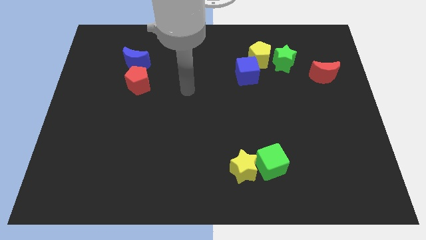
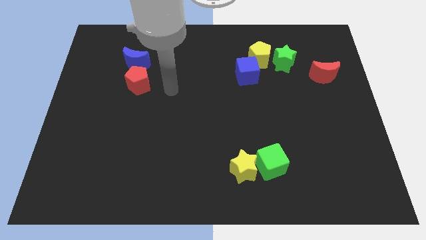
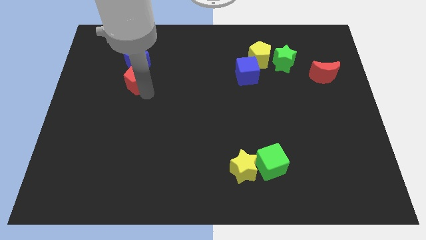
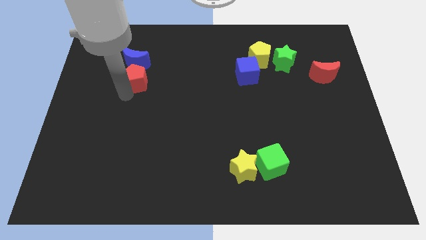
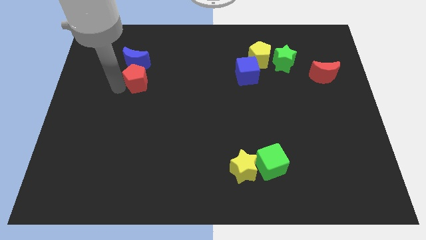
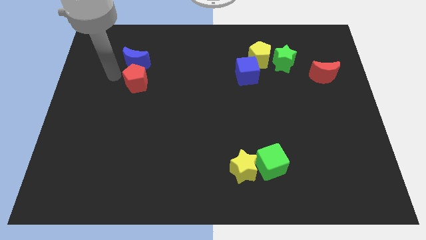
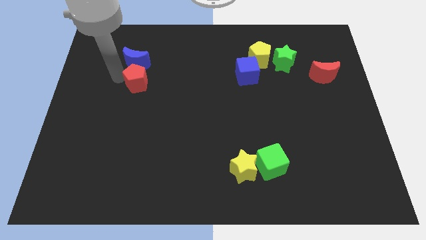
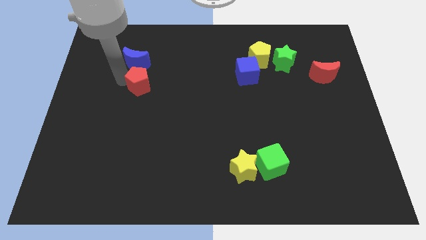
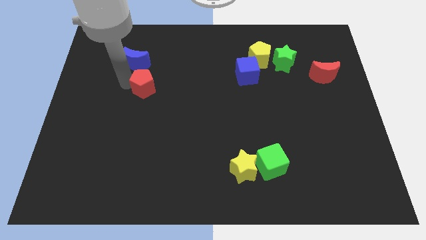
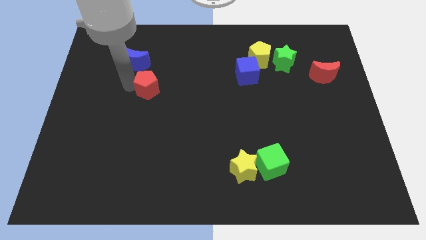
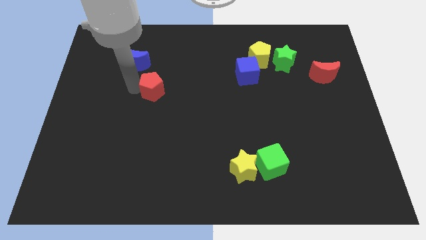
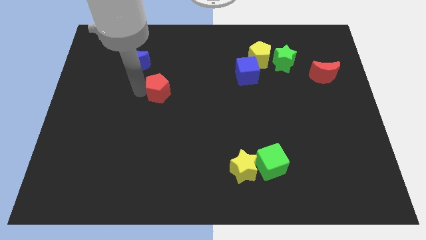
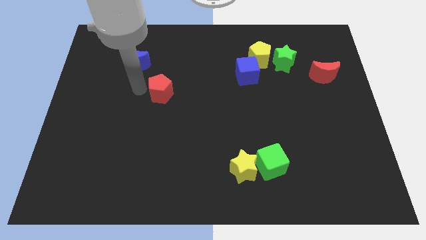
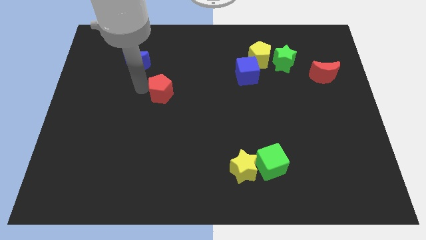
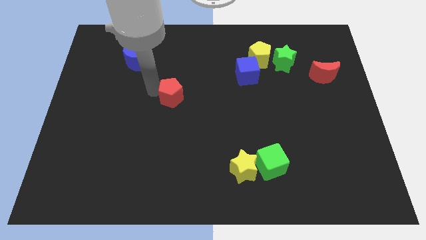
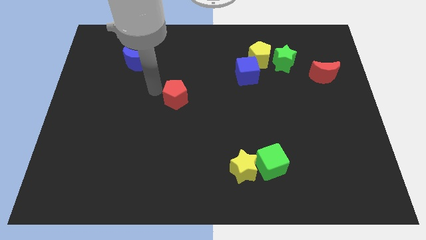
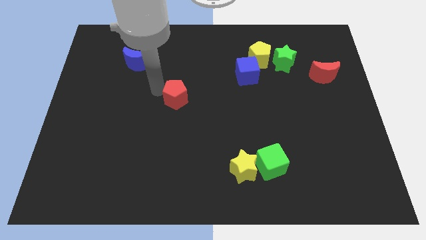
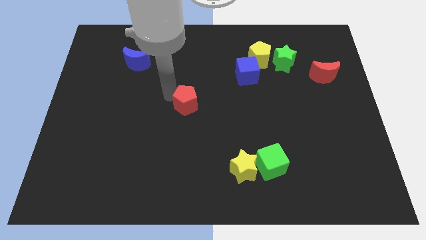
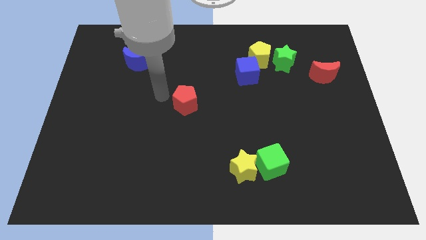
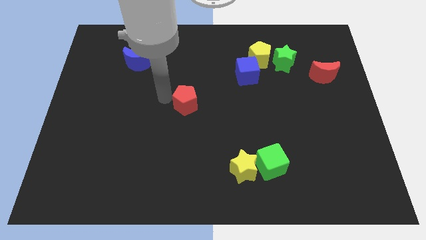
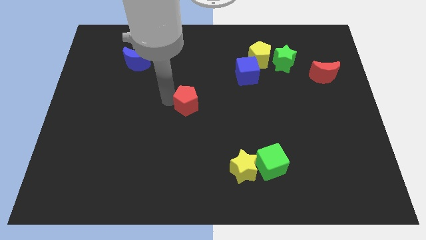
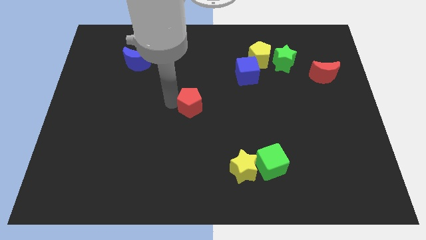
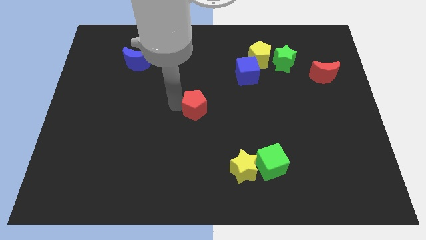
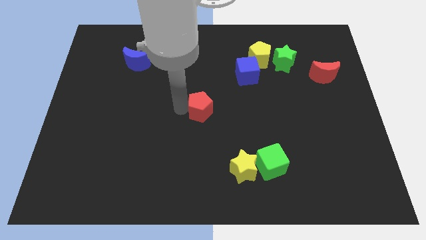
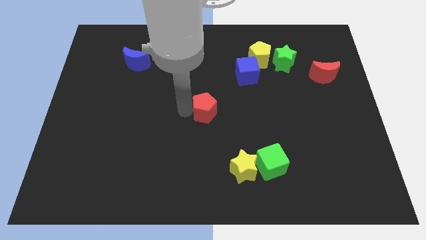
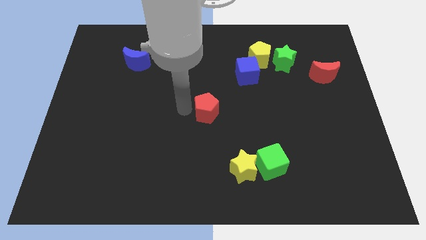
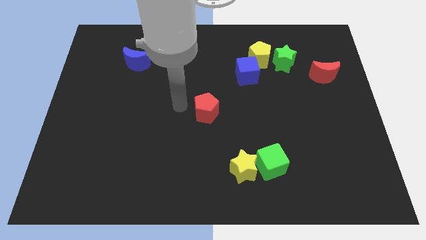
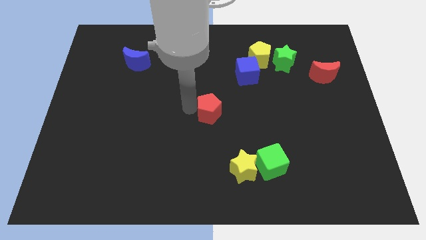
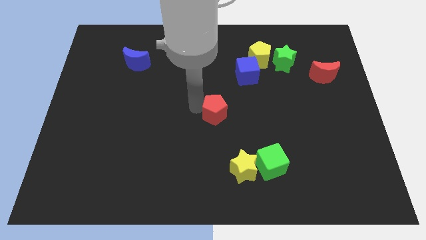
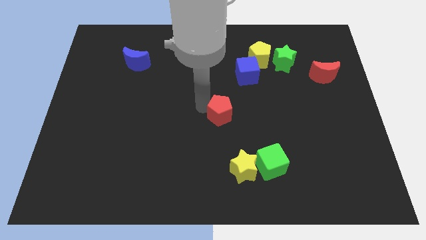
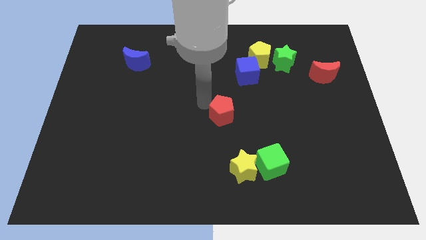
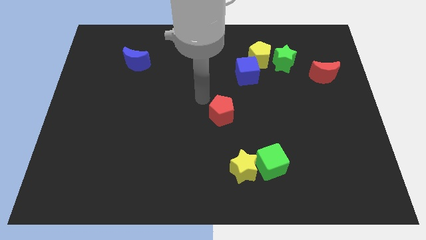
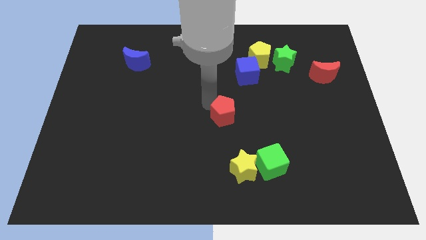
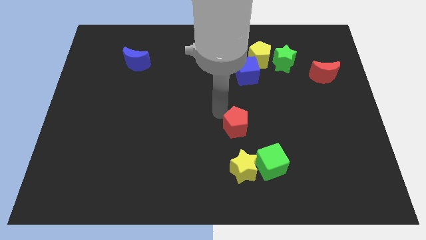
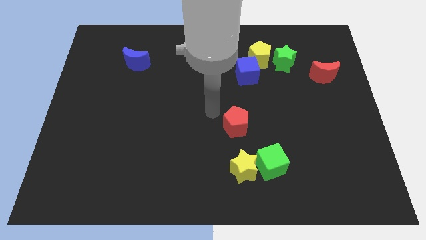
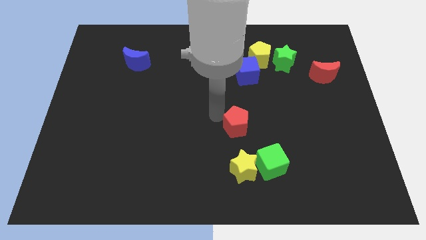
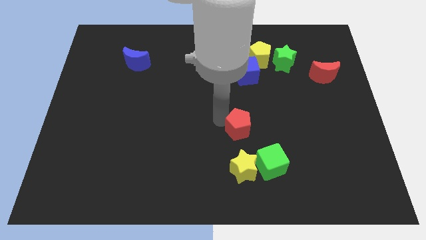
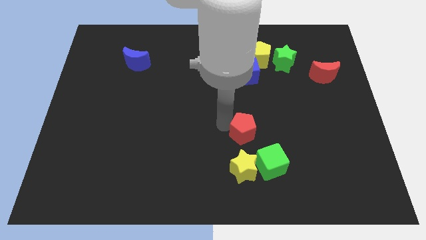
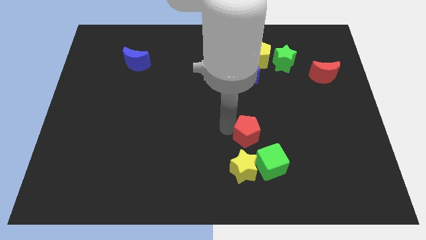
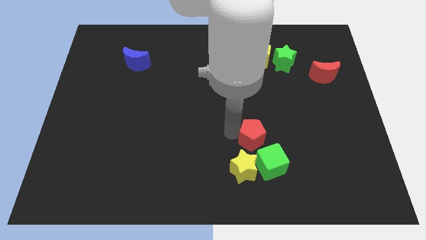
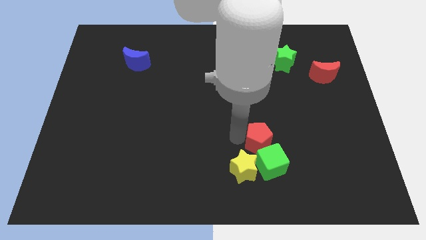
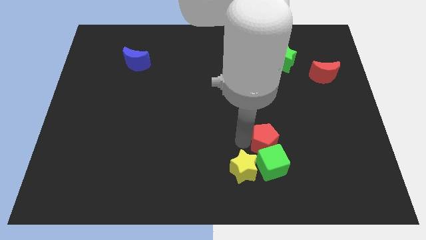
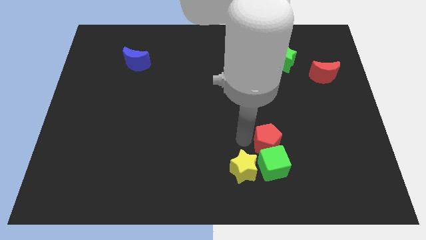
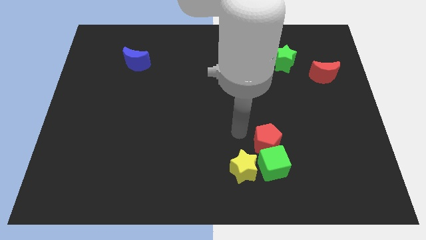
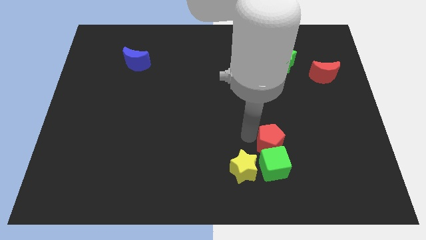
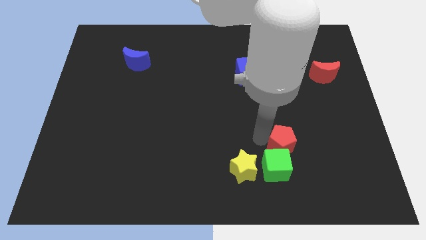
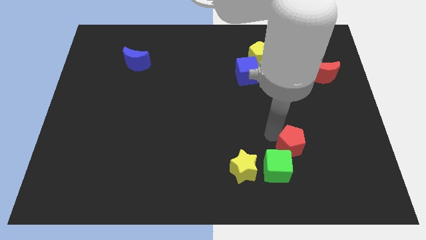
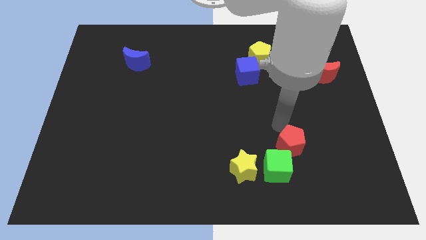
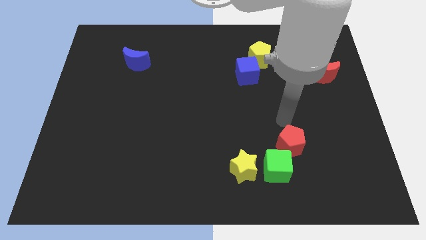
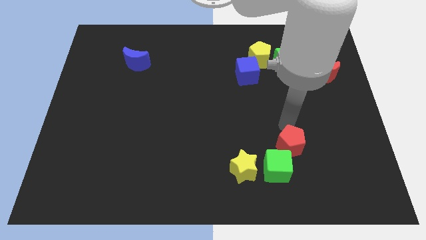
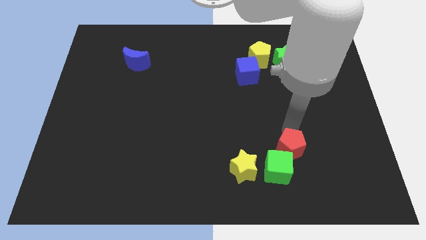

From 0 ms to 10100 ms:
put the red pentagon right of the yellow star

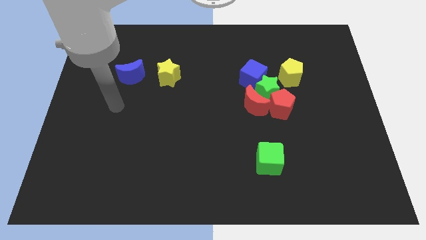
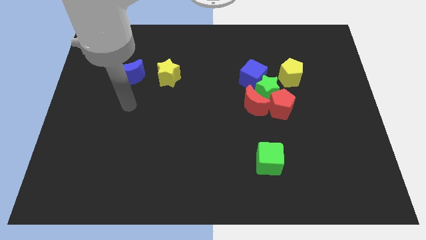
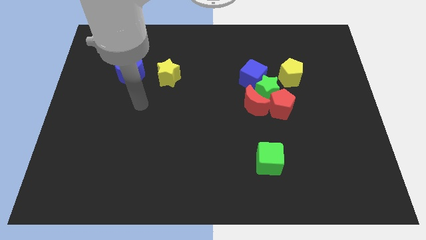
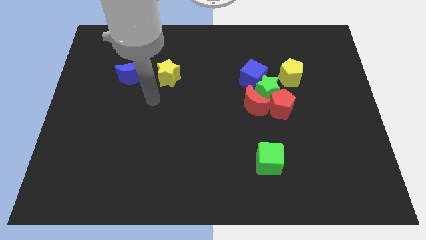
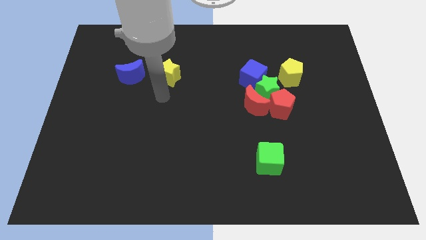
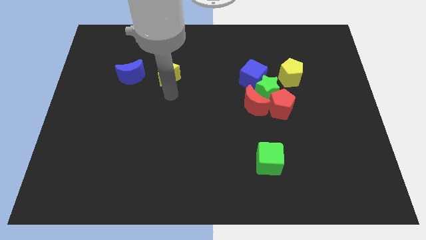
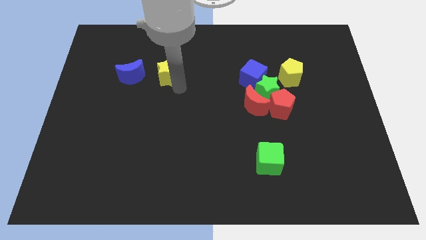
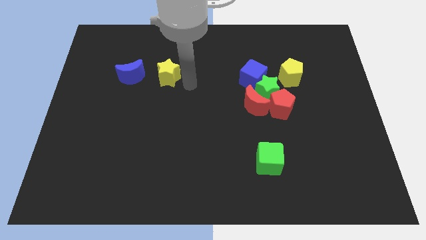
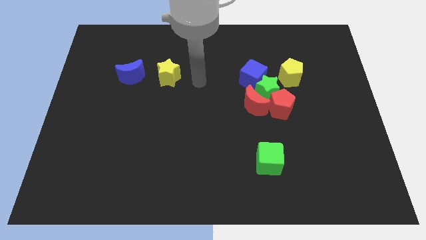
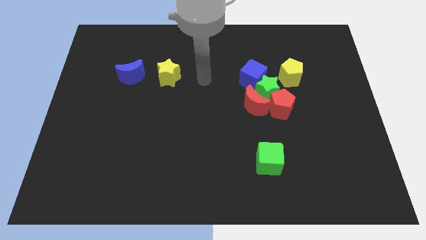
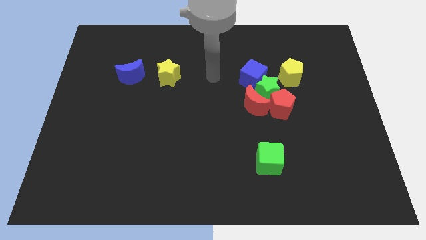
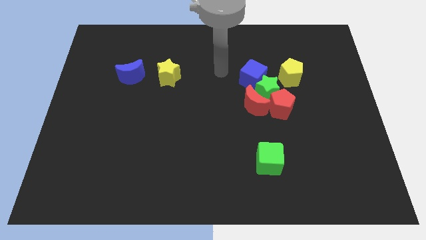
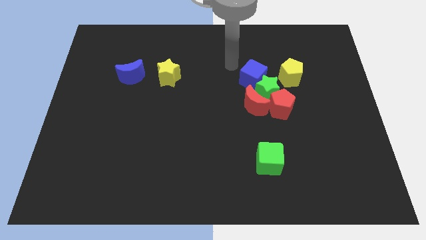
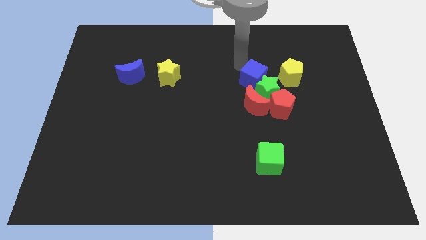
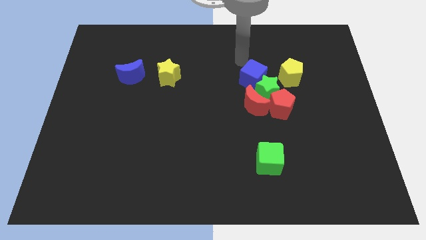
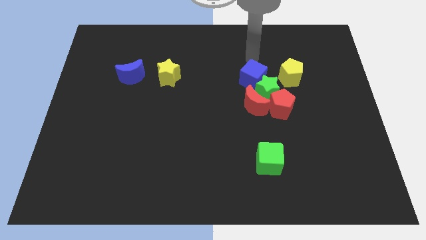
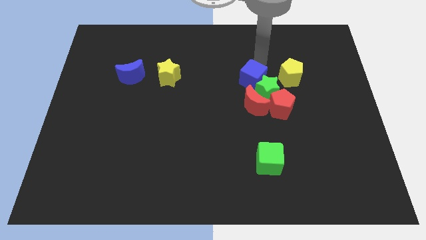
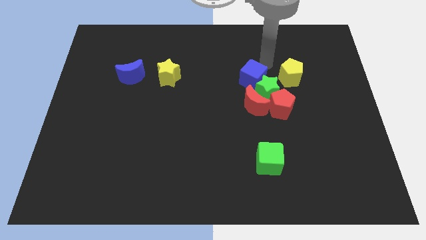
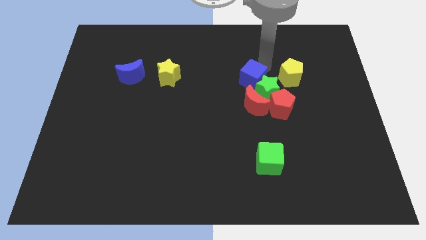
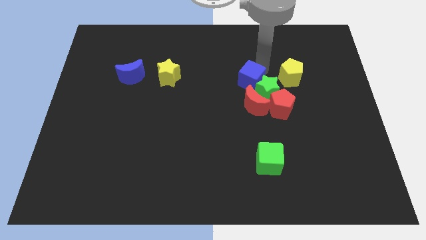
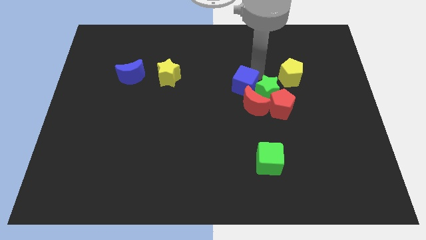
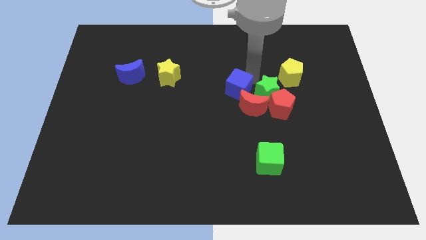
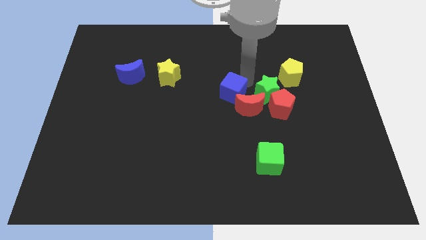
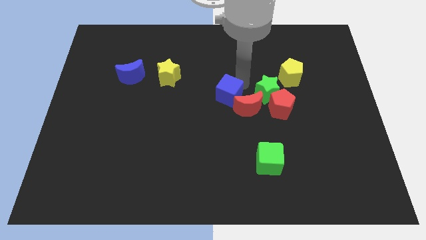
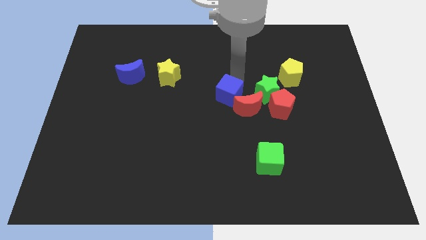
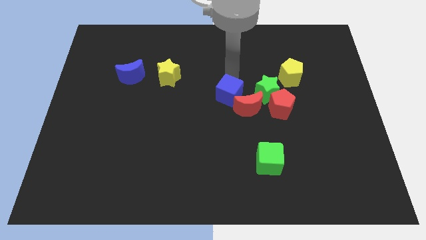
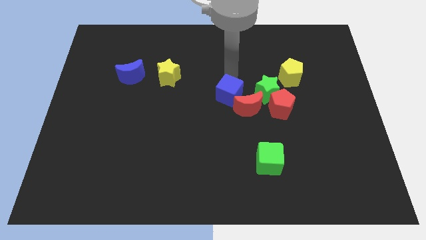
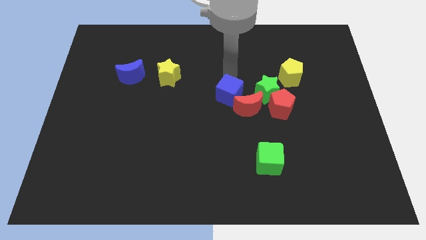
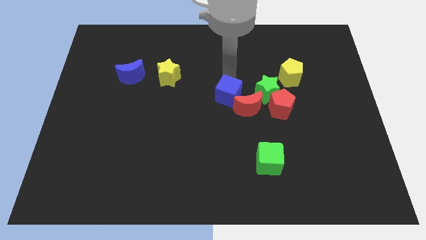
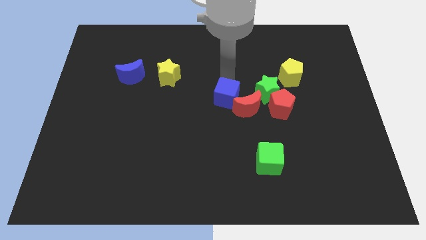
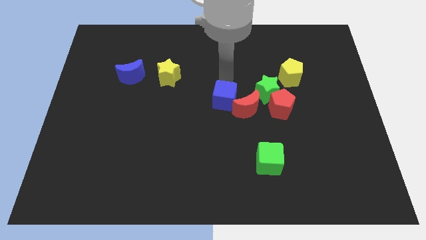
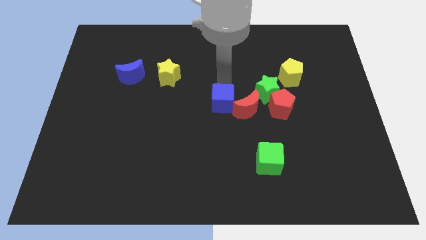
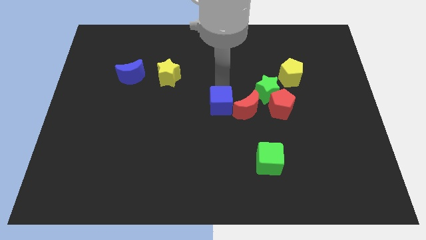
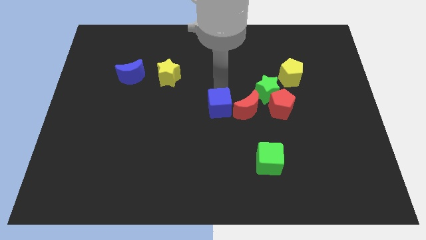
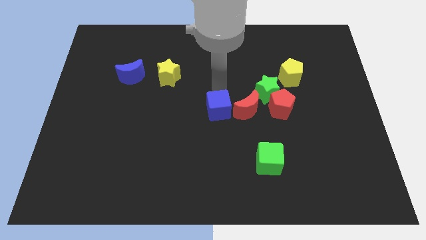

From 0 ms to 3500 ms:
slide the blue cube diagonally down and to the left of the red moon
